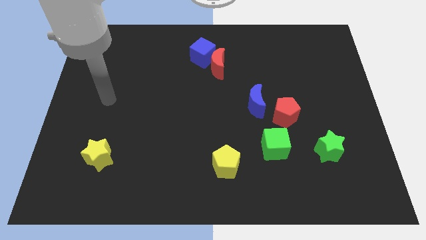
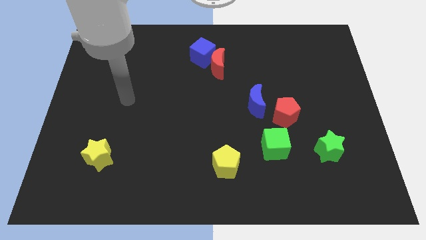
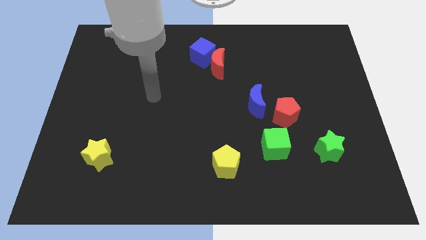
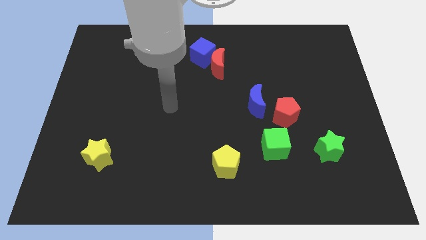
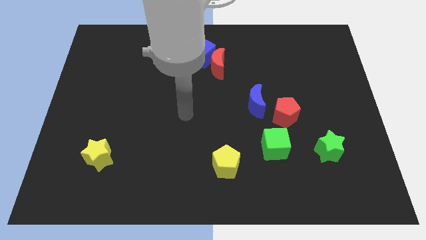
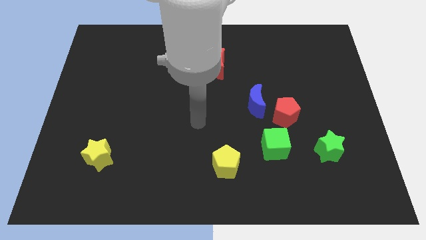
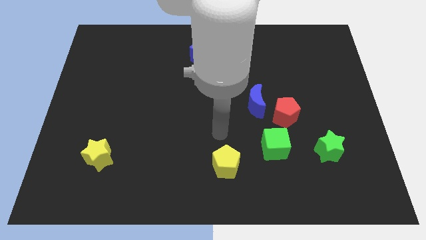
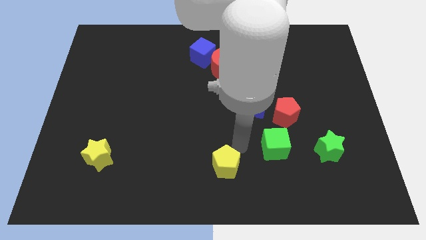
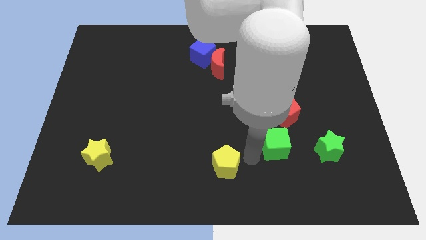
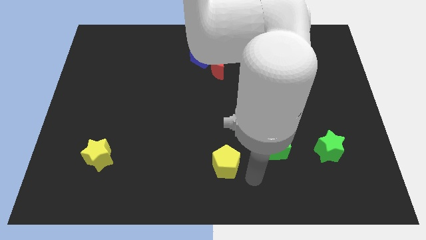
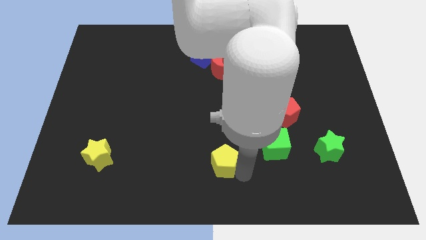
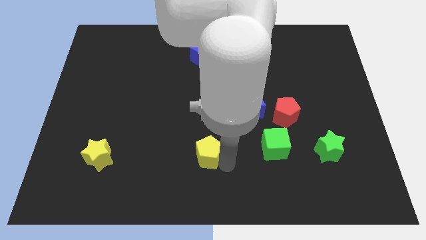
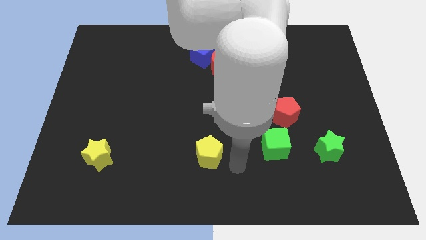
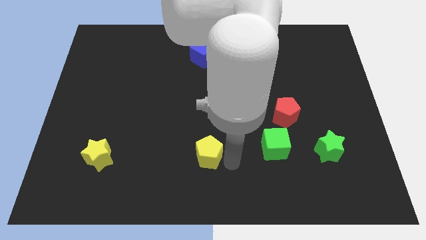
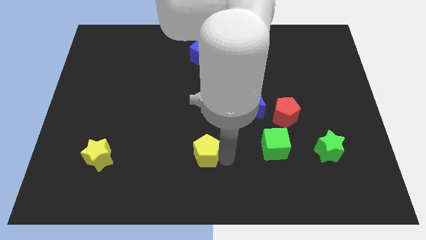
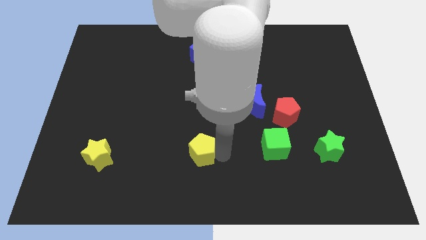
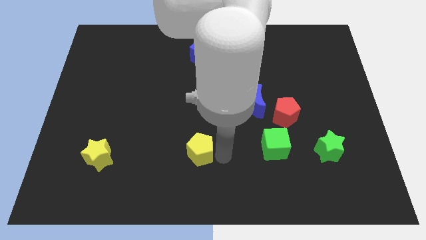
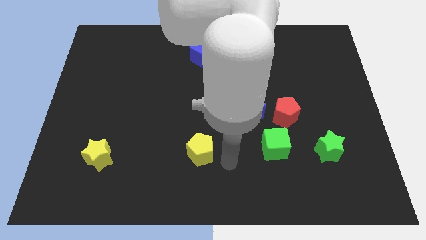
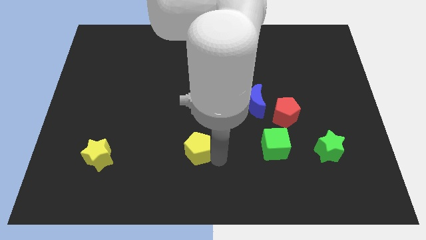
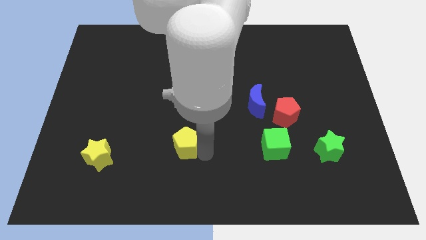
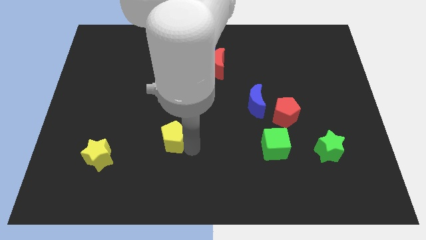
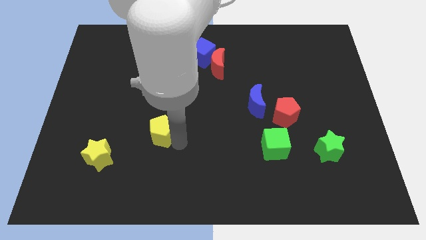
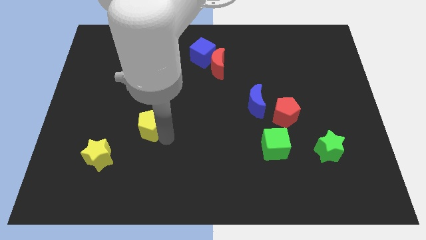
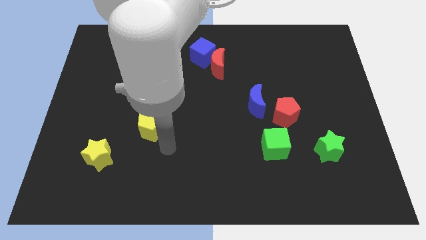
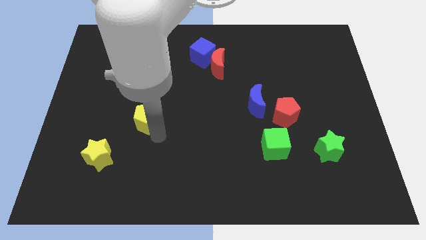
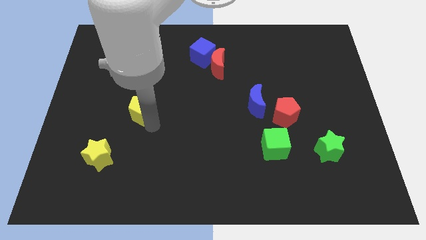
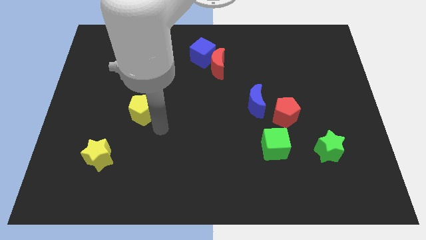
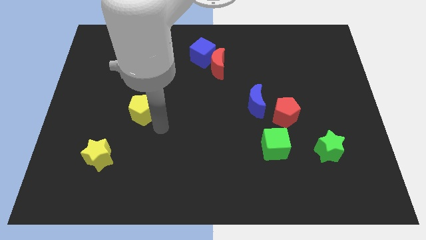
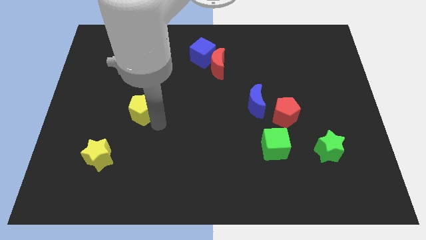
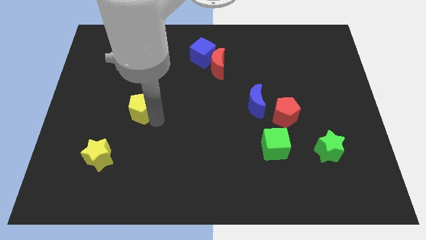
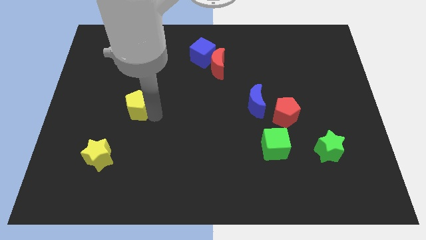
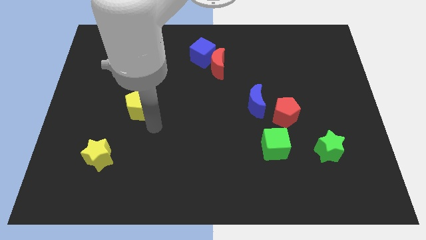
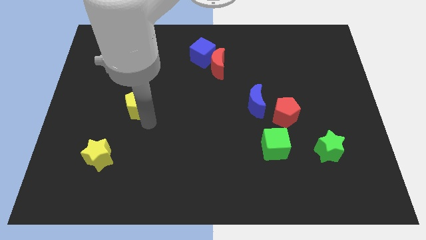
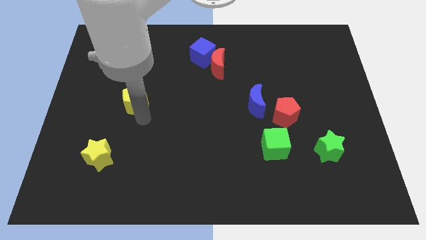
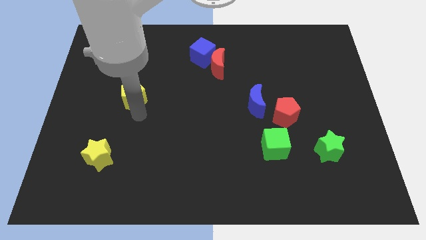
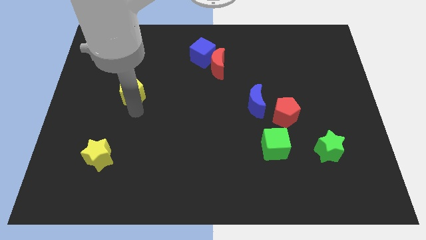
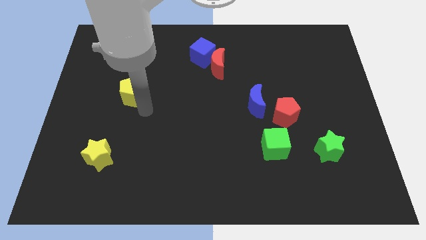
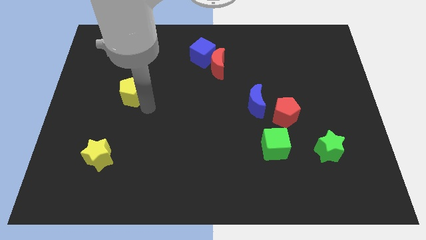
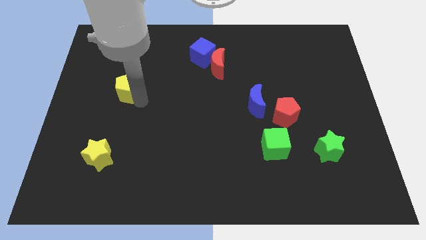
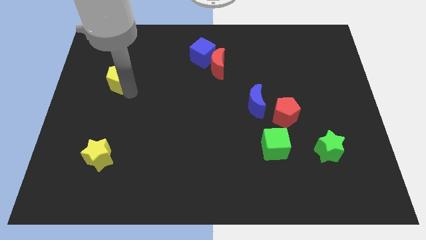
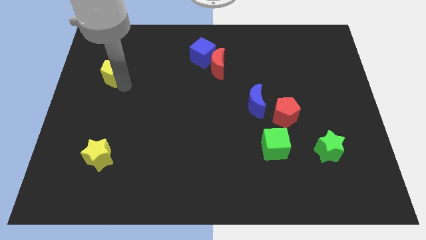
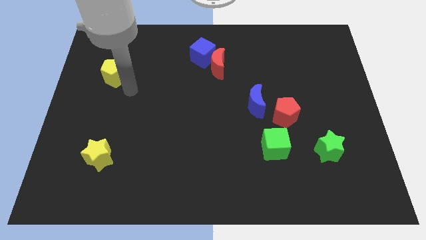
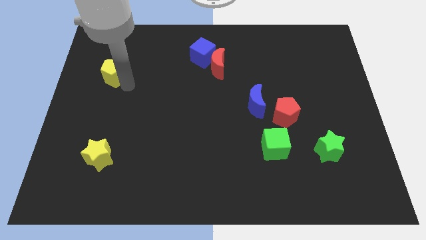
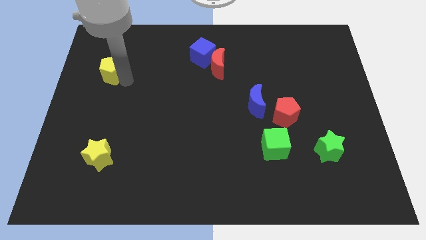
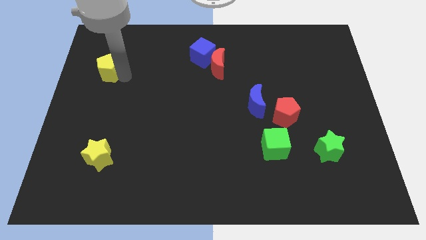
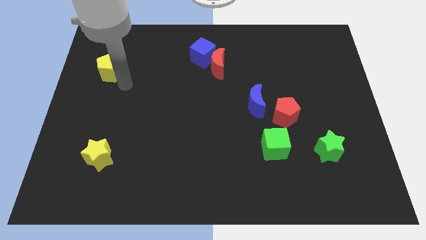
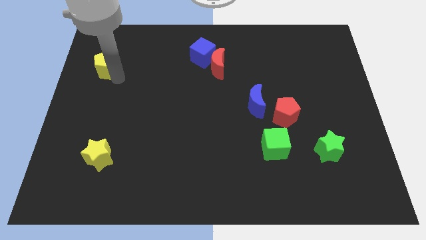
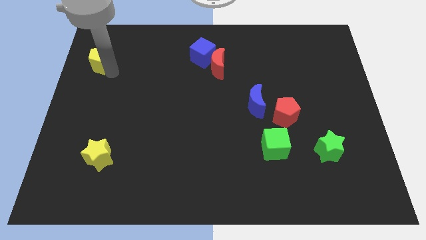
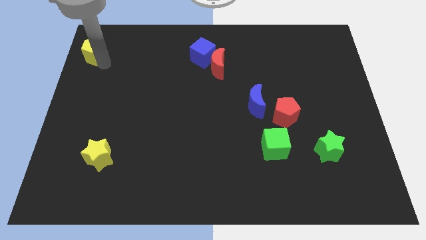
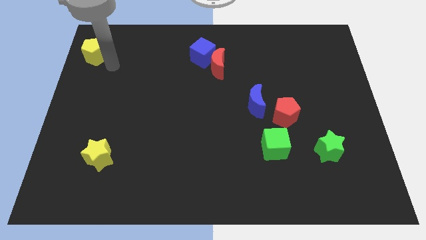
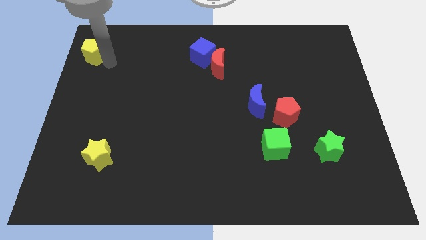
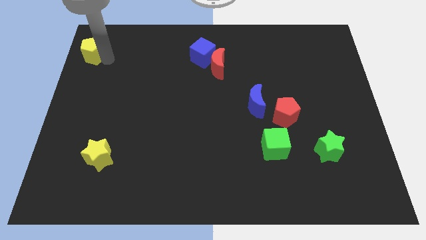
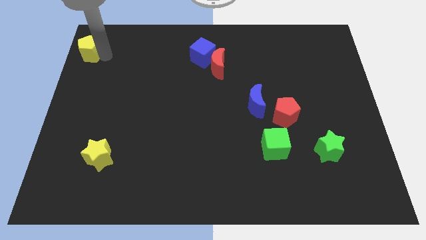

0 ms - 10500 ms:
push the yellow pentagon to the top left of the board

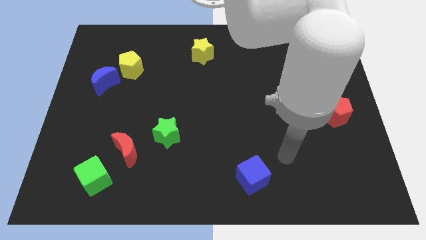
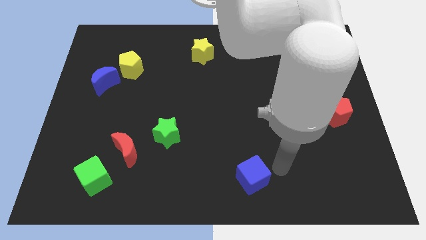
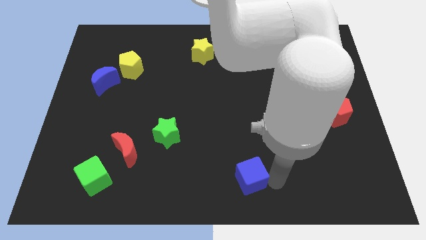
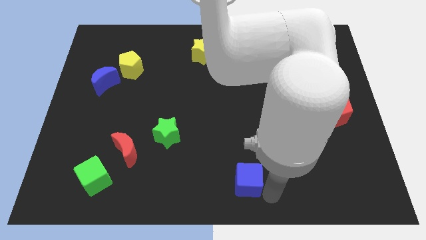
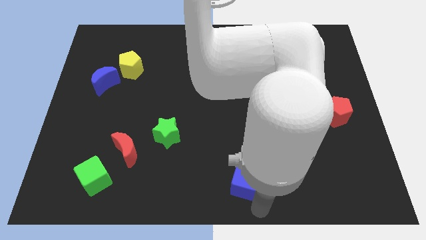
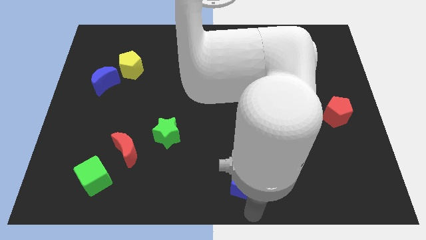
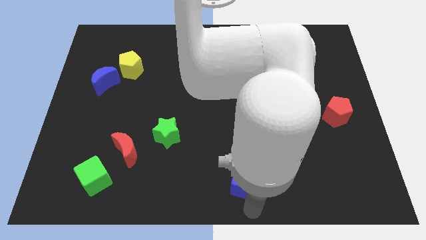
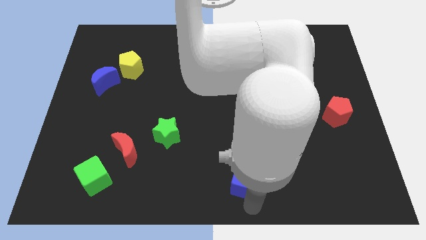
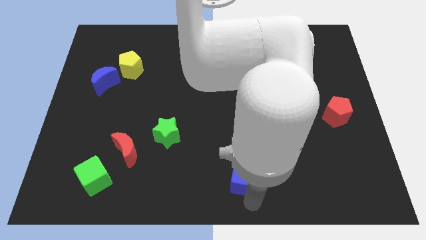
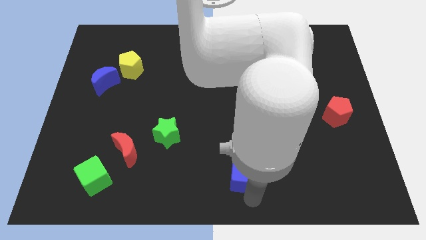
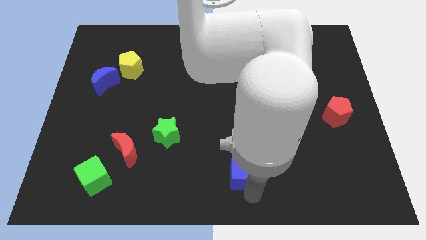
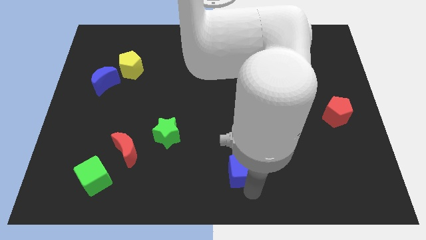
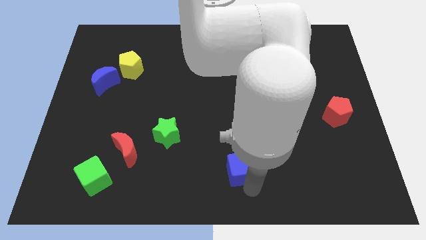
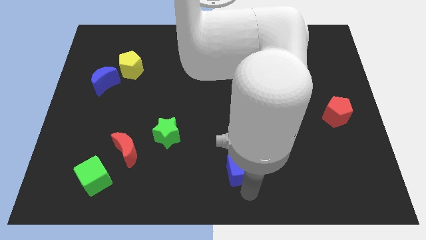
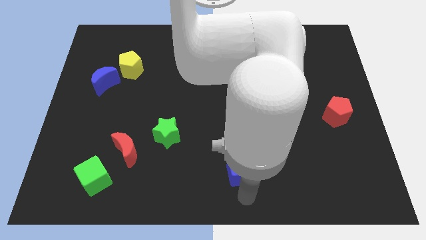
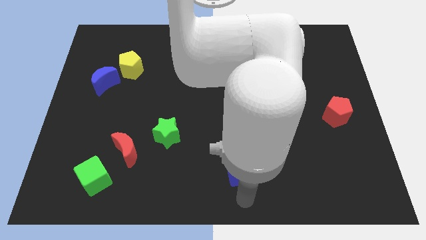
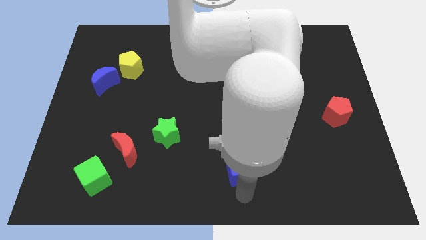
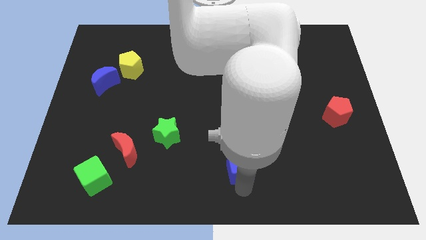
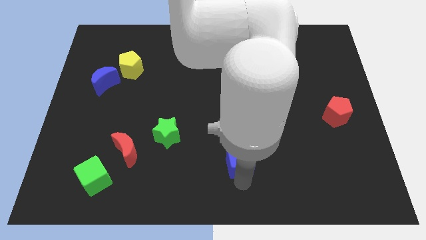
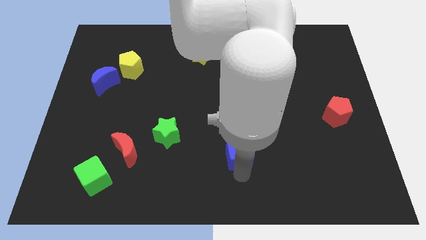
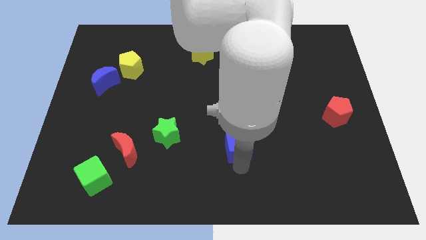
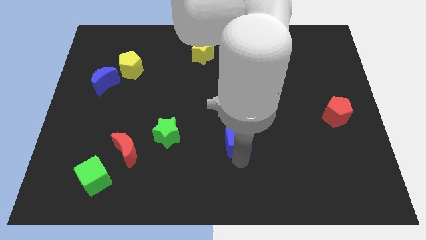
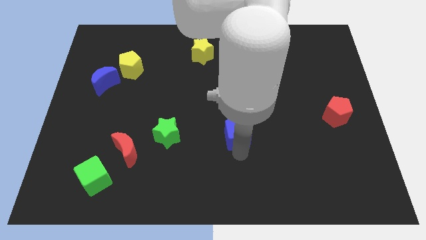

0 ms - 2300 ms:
move the blue cube to the center
